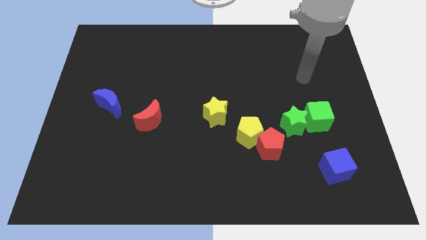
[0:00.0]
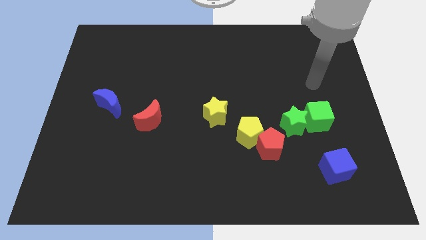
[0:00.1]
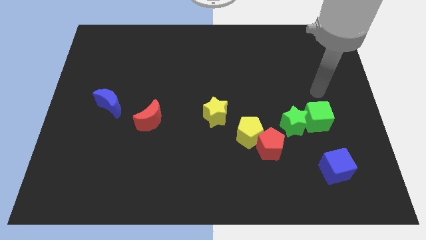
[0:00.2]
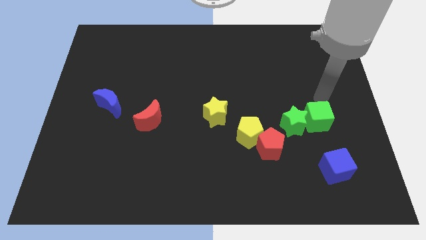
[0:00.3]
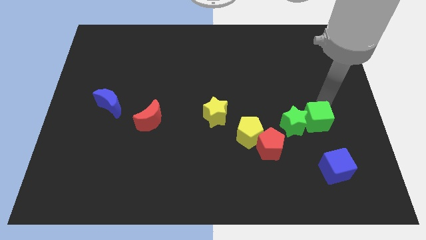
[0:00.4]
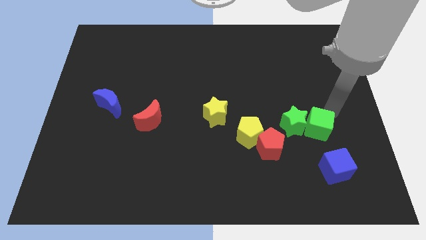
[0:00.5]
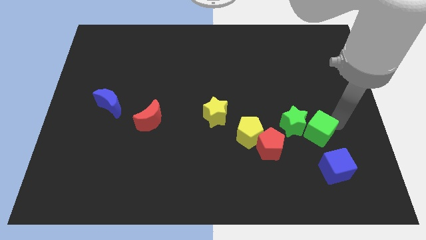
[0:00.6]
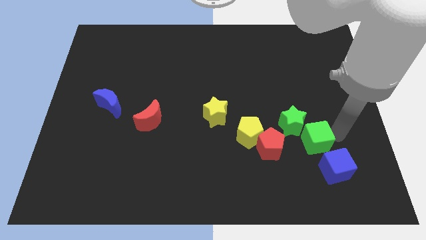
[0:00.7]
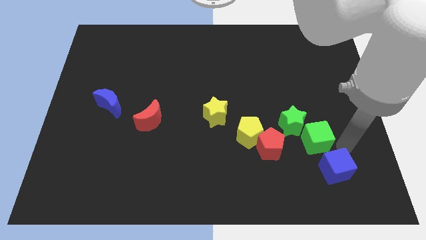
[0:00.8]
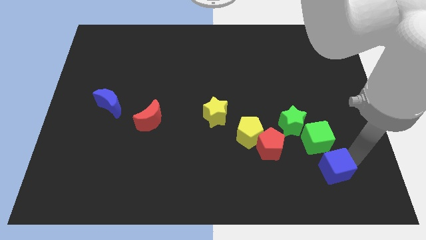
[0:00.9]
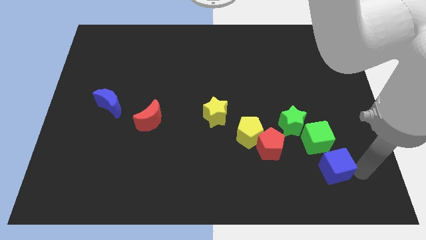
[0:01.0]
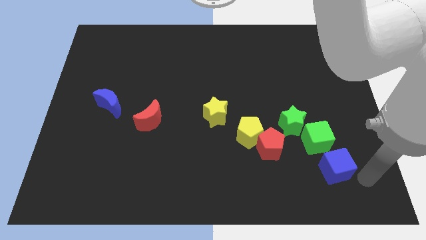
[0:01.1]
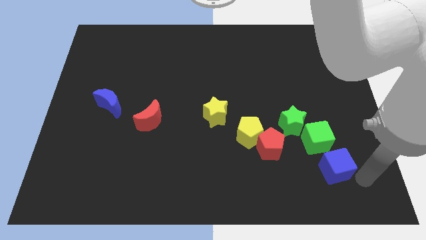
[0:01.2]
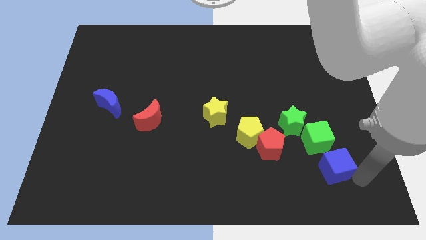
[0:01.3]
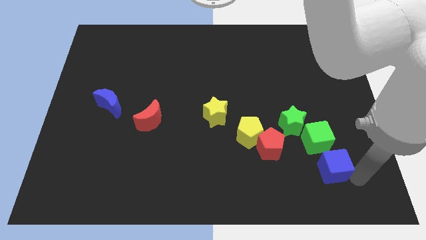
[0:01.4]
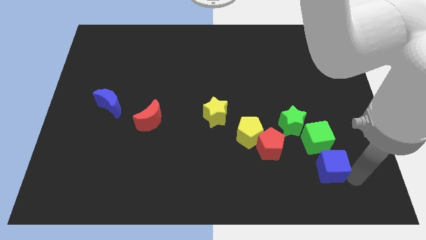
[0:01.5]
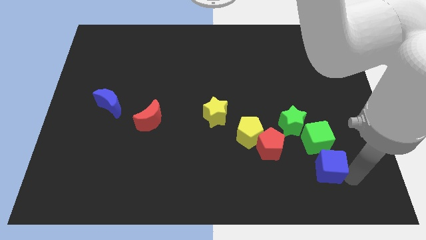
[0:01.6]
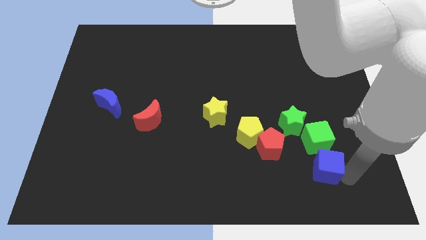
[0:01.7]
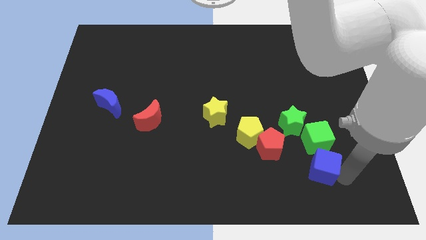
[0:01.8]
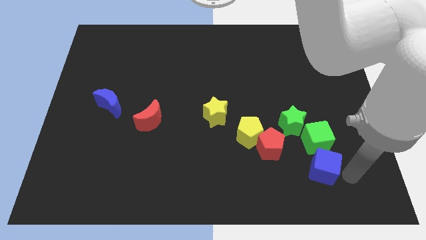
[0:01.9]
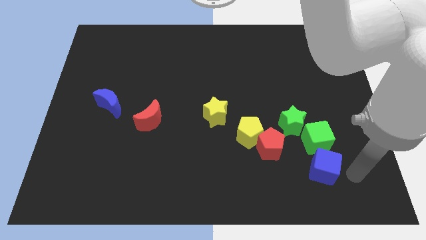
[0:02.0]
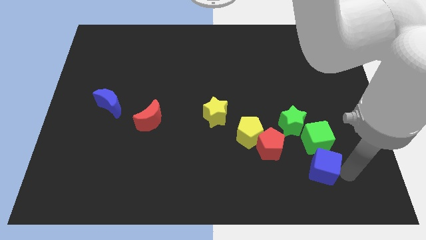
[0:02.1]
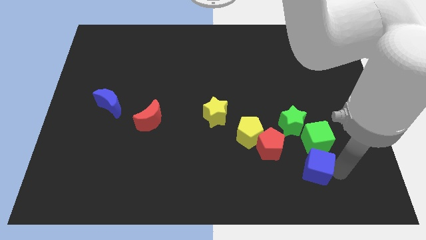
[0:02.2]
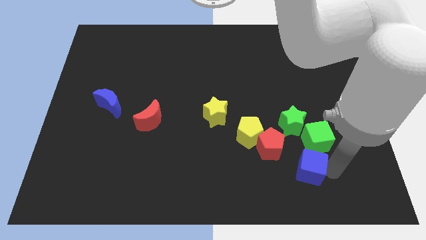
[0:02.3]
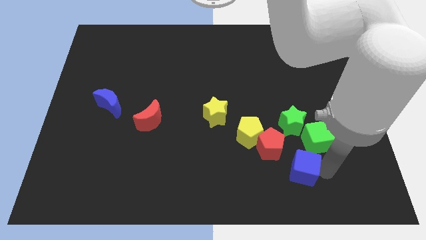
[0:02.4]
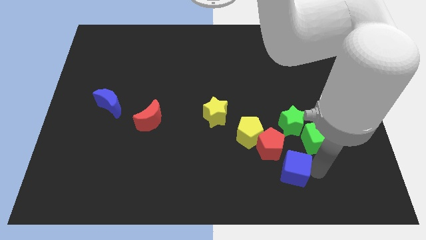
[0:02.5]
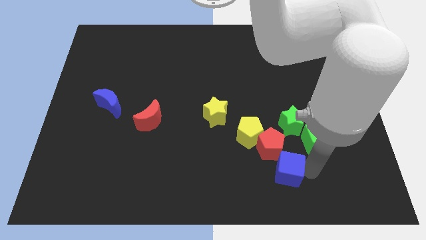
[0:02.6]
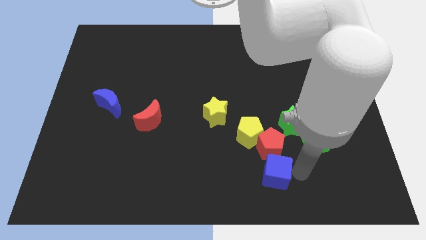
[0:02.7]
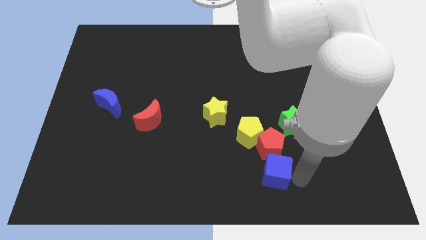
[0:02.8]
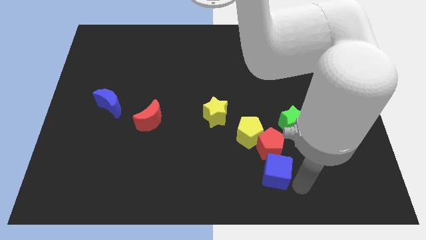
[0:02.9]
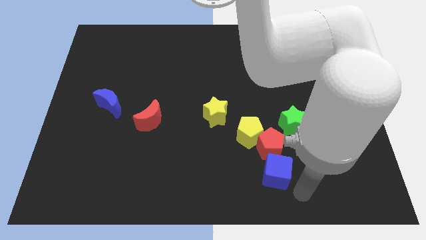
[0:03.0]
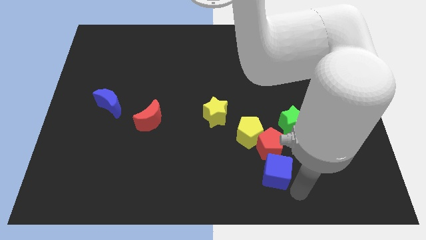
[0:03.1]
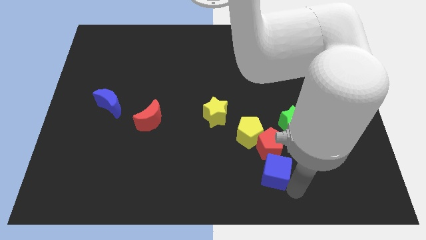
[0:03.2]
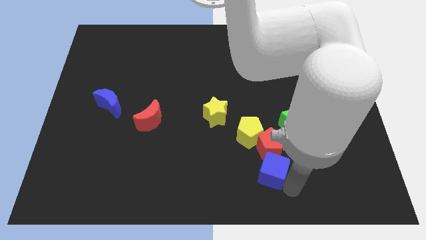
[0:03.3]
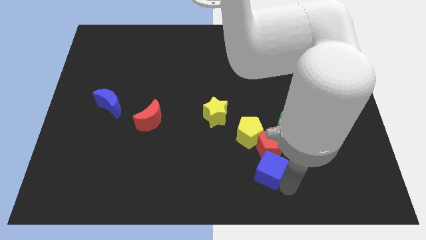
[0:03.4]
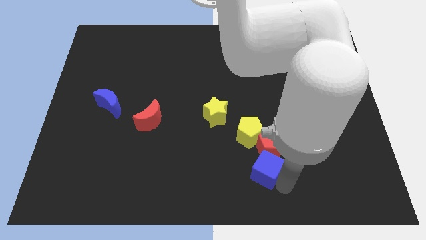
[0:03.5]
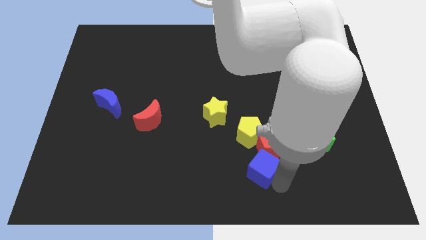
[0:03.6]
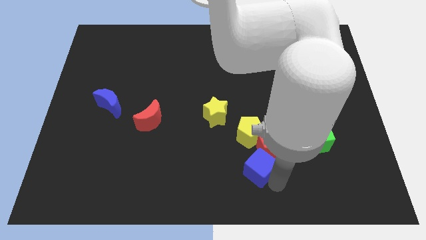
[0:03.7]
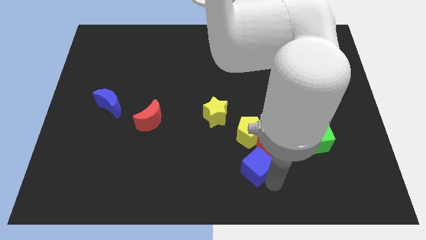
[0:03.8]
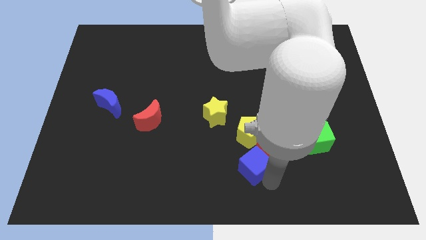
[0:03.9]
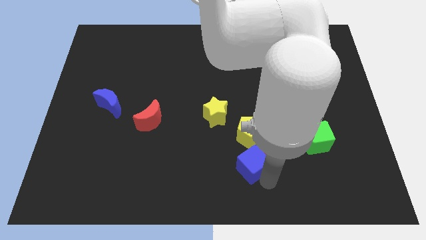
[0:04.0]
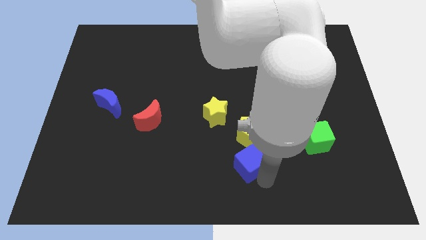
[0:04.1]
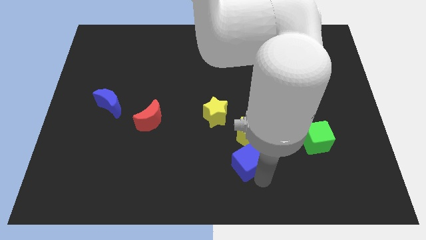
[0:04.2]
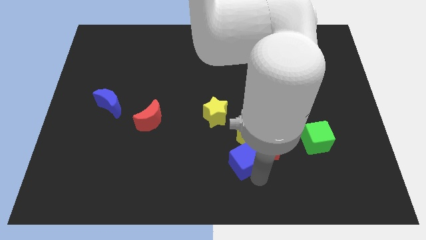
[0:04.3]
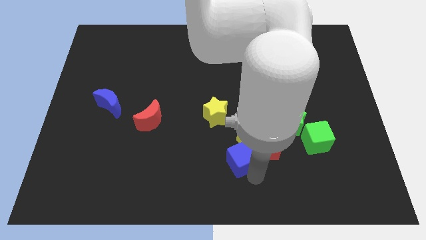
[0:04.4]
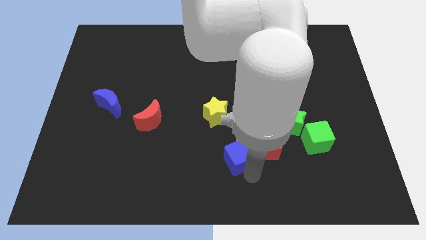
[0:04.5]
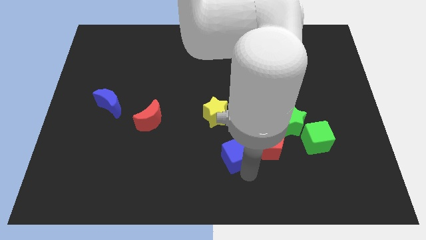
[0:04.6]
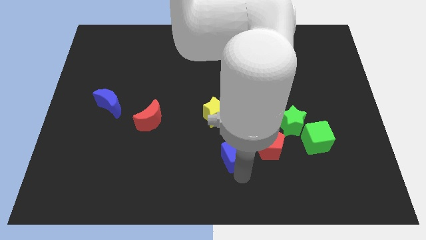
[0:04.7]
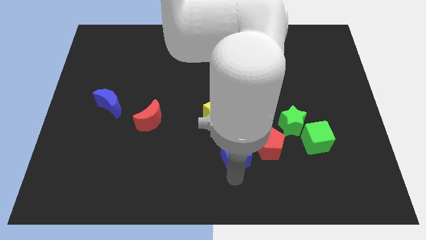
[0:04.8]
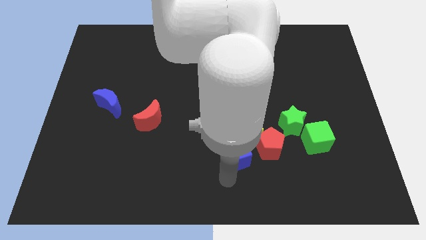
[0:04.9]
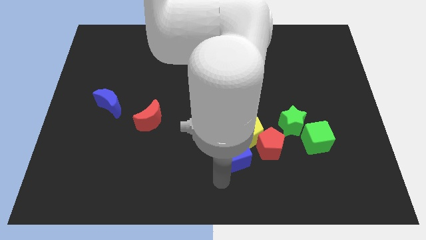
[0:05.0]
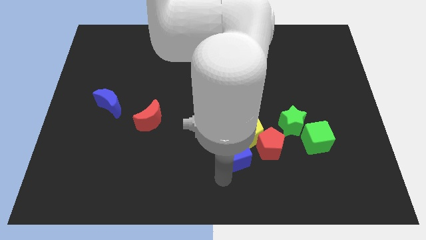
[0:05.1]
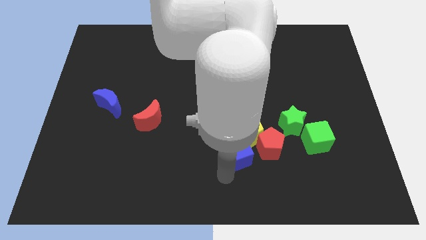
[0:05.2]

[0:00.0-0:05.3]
put the blue cube towards the yellow pentagon

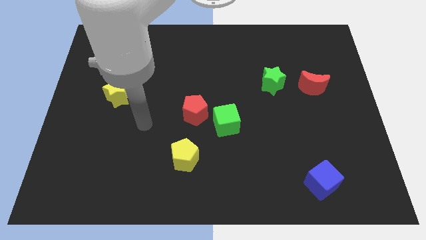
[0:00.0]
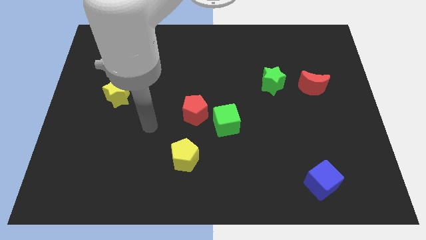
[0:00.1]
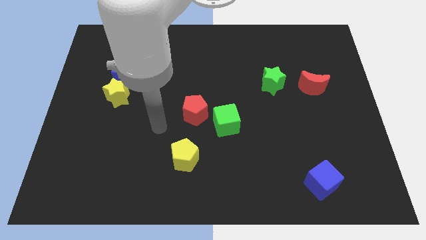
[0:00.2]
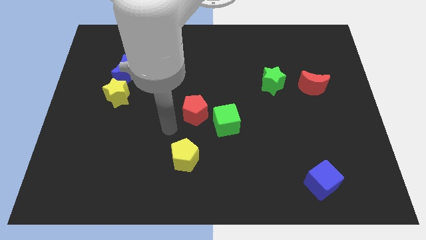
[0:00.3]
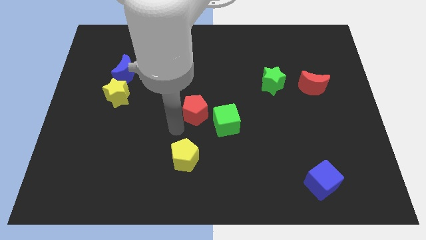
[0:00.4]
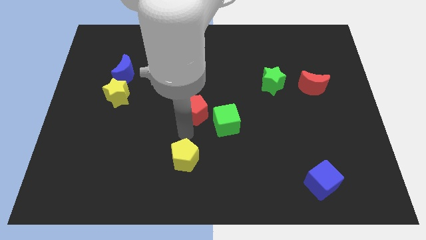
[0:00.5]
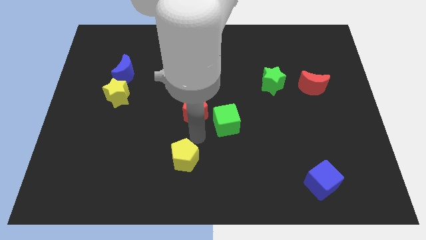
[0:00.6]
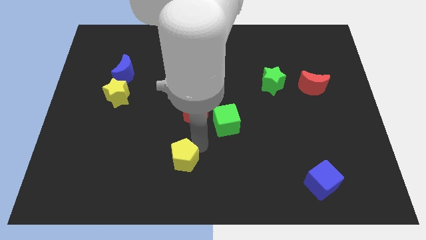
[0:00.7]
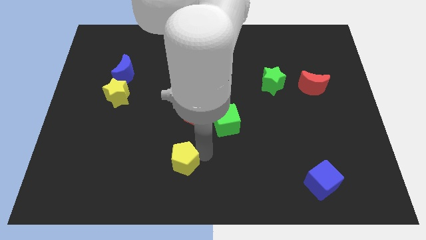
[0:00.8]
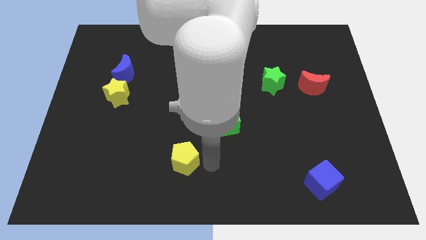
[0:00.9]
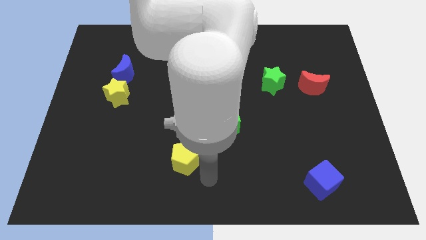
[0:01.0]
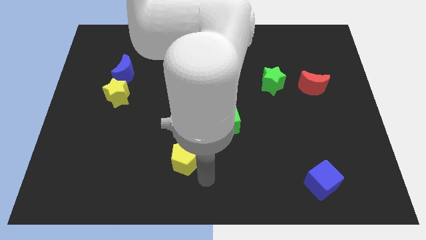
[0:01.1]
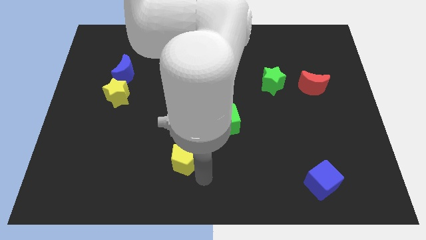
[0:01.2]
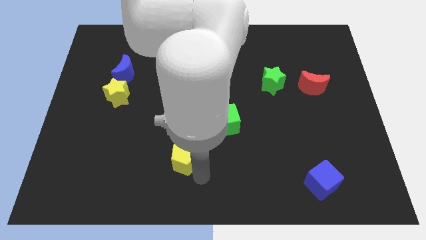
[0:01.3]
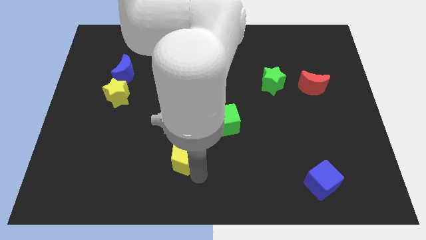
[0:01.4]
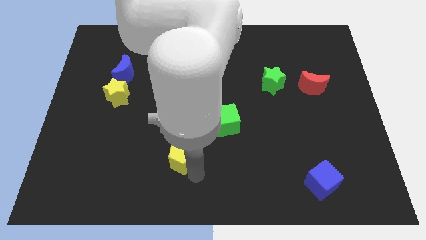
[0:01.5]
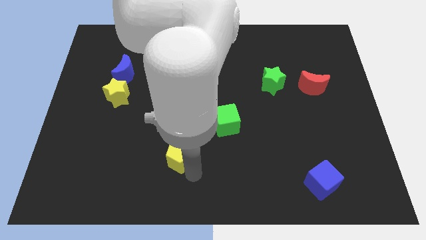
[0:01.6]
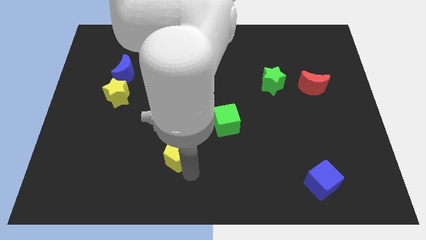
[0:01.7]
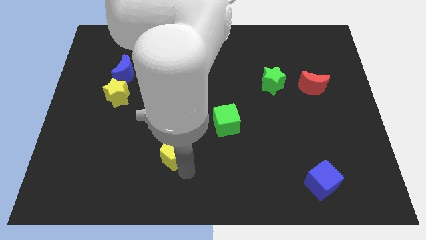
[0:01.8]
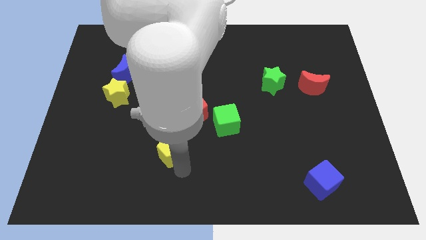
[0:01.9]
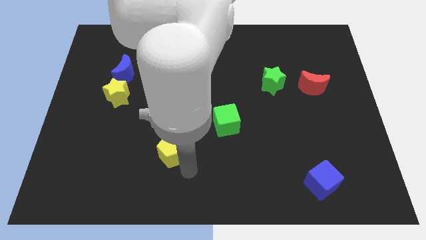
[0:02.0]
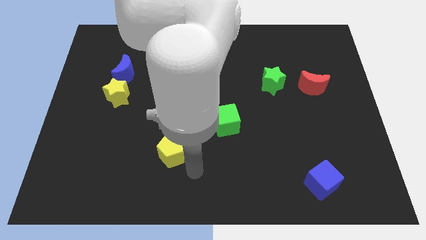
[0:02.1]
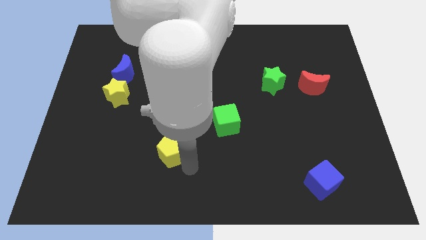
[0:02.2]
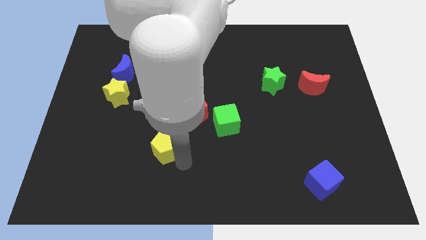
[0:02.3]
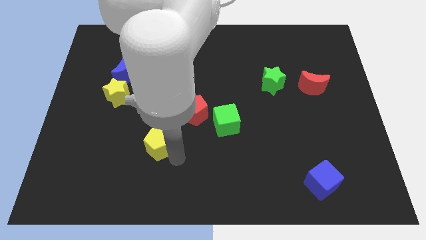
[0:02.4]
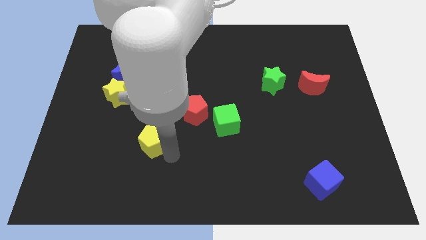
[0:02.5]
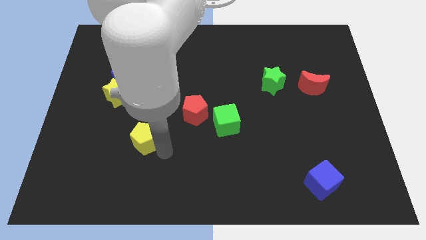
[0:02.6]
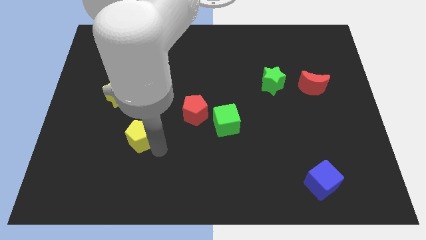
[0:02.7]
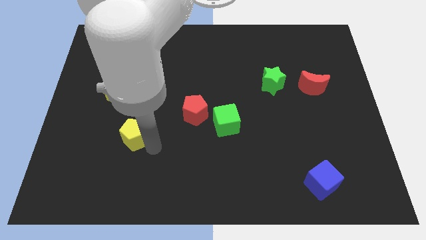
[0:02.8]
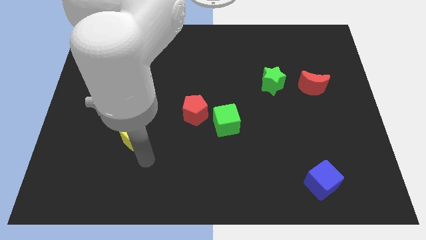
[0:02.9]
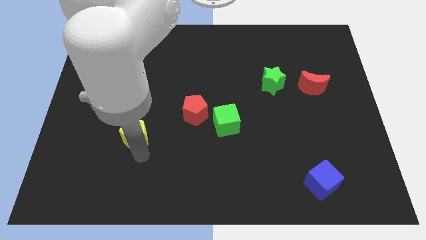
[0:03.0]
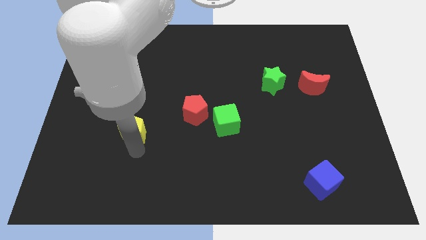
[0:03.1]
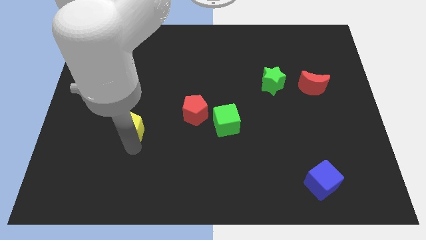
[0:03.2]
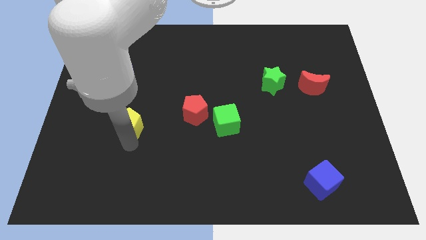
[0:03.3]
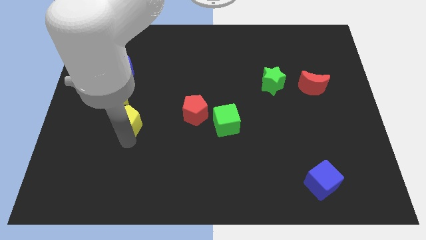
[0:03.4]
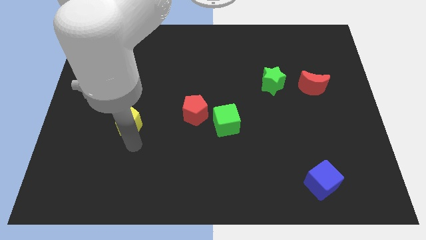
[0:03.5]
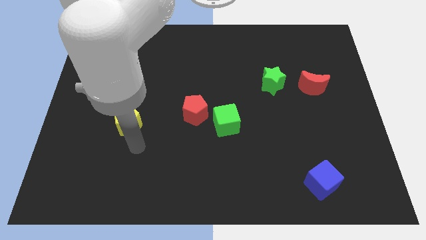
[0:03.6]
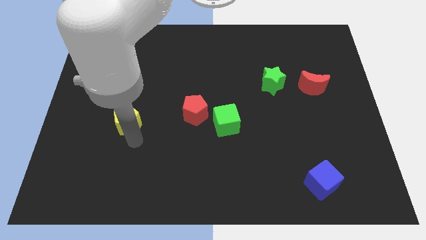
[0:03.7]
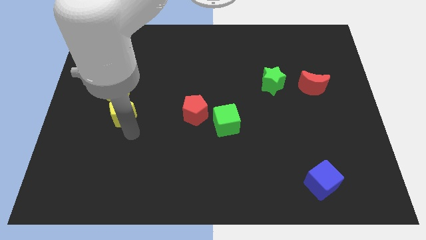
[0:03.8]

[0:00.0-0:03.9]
put the yellow pentagon next to the yellow star
